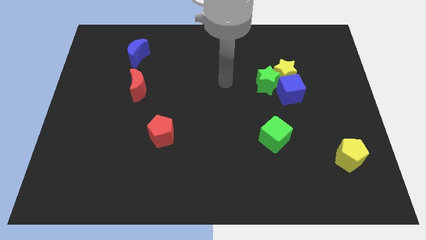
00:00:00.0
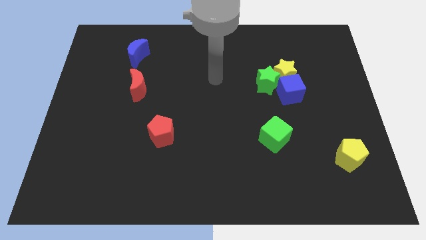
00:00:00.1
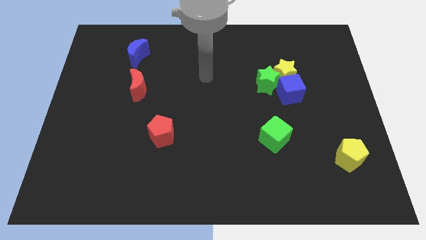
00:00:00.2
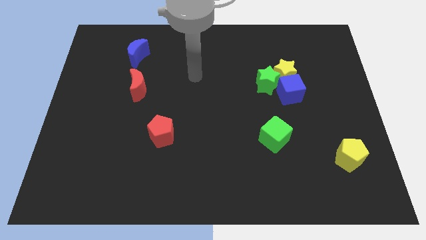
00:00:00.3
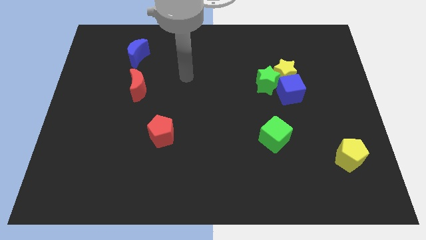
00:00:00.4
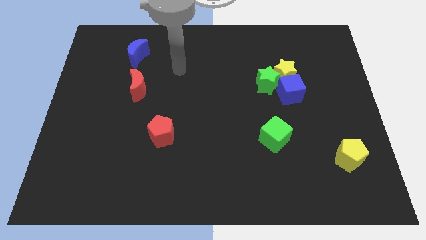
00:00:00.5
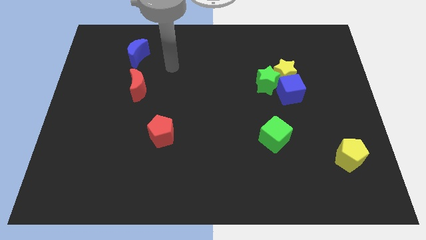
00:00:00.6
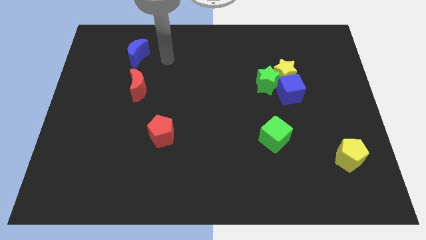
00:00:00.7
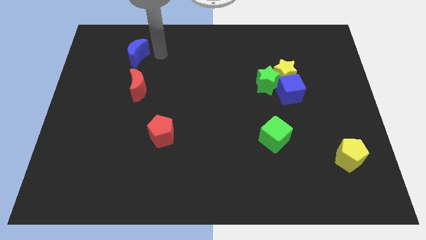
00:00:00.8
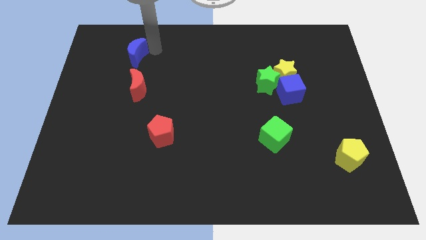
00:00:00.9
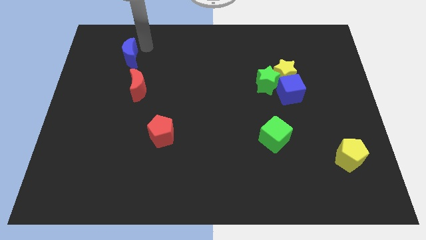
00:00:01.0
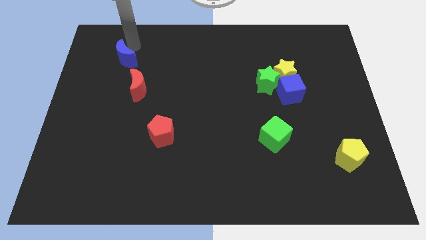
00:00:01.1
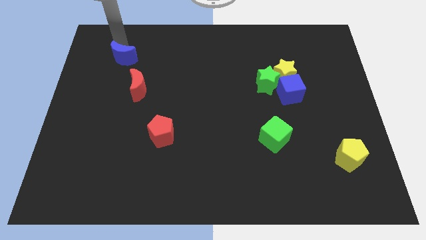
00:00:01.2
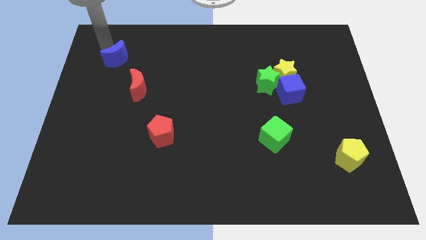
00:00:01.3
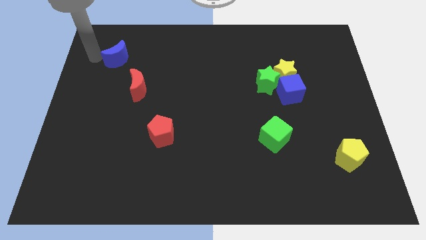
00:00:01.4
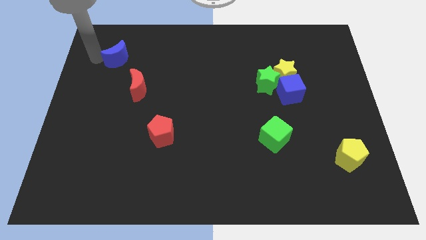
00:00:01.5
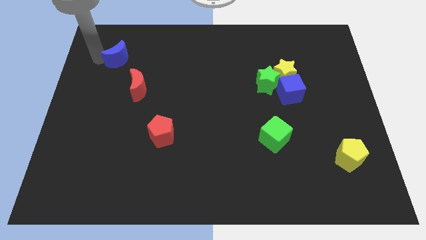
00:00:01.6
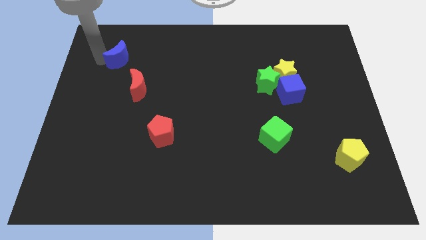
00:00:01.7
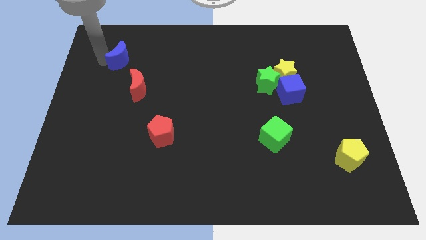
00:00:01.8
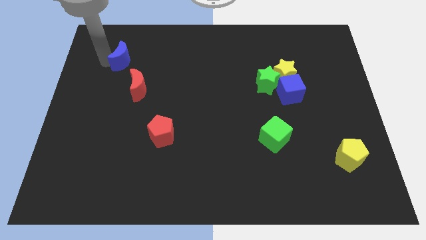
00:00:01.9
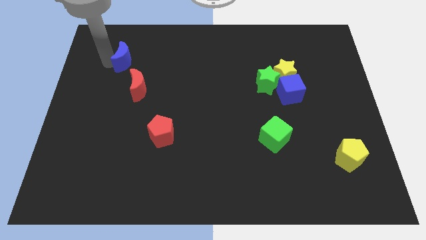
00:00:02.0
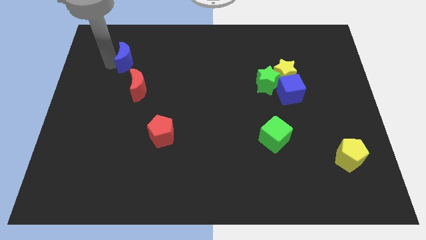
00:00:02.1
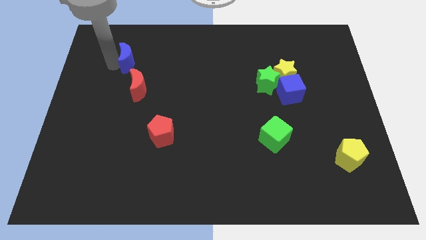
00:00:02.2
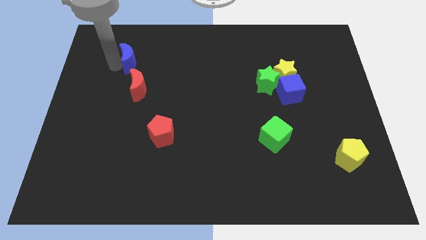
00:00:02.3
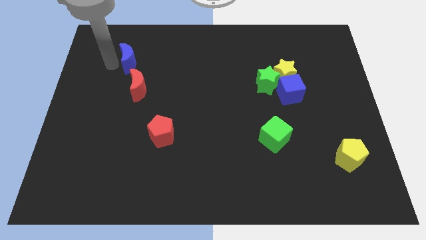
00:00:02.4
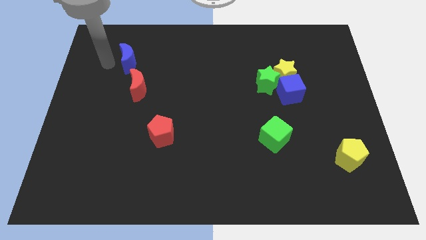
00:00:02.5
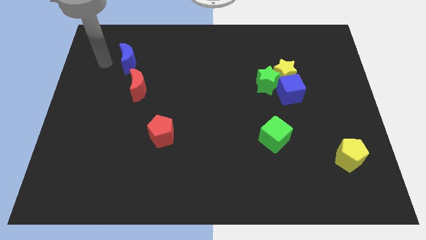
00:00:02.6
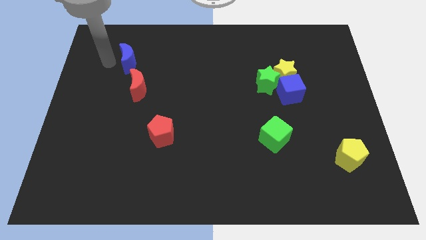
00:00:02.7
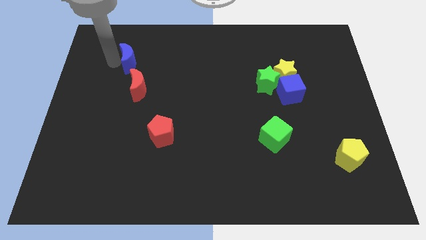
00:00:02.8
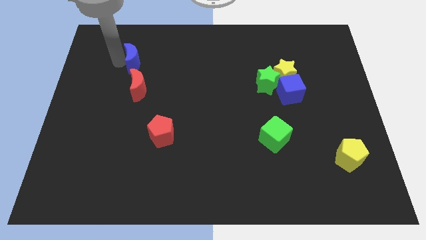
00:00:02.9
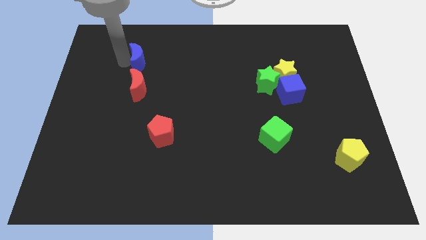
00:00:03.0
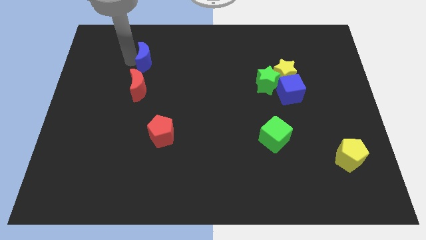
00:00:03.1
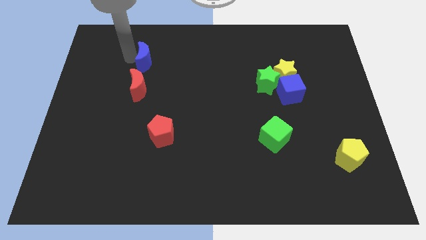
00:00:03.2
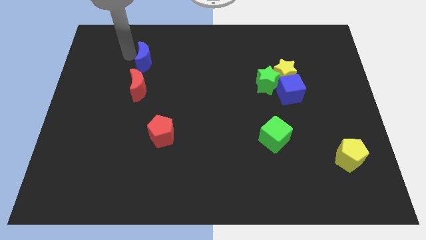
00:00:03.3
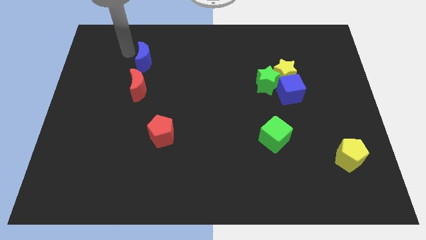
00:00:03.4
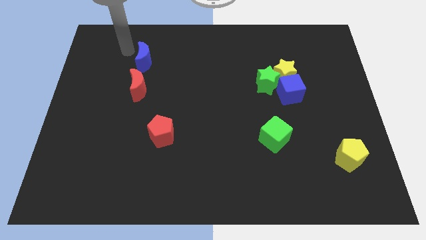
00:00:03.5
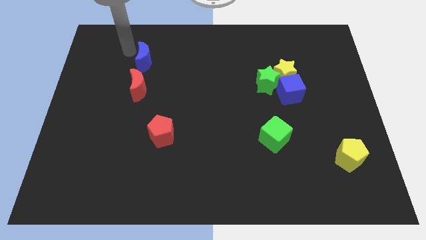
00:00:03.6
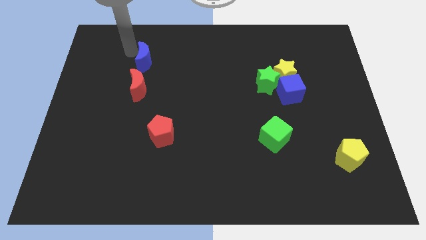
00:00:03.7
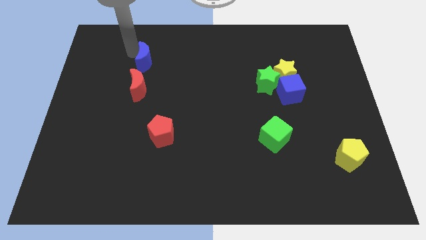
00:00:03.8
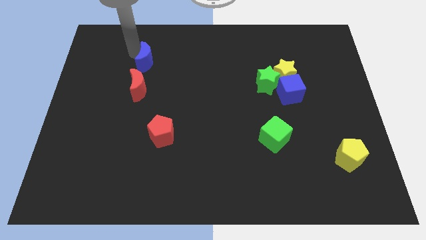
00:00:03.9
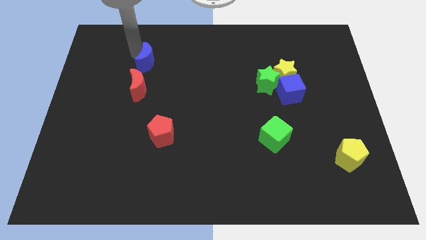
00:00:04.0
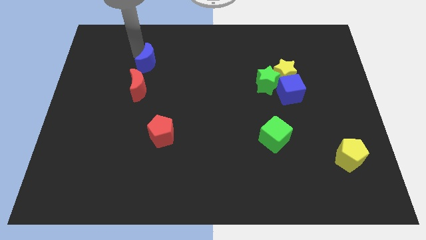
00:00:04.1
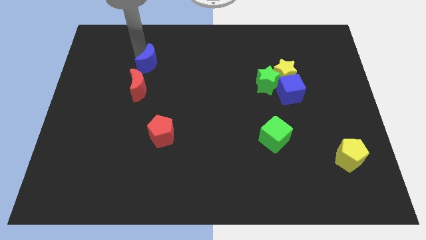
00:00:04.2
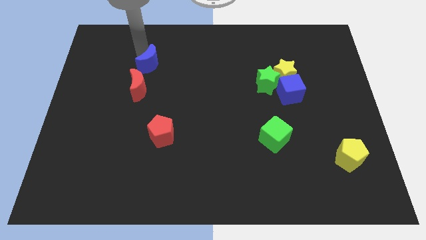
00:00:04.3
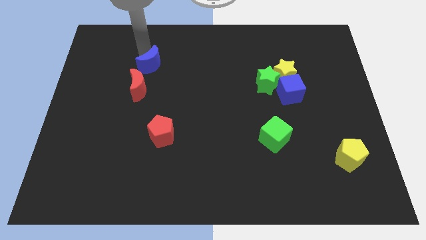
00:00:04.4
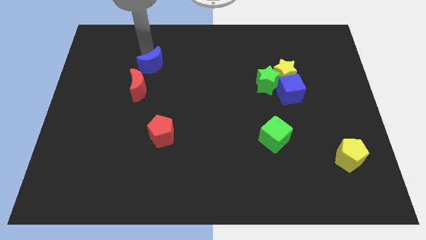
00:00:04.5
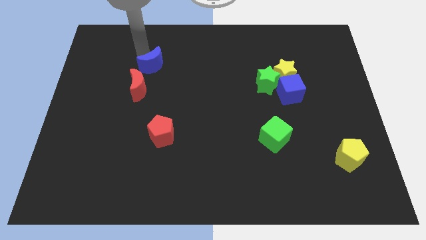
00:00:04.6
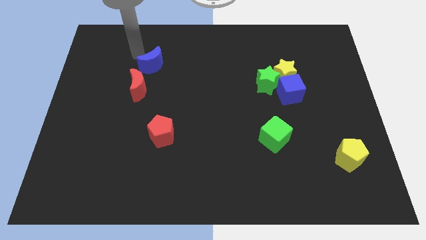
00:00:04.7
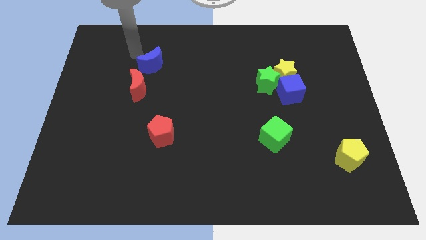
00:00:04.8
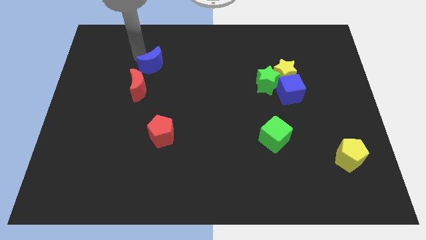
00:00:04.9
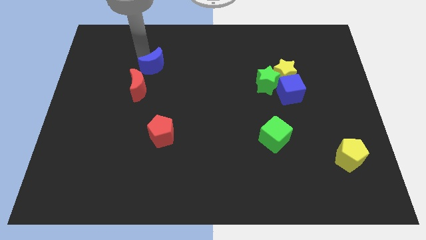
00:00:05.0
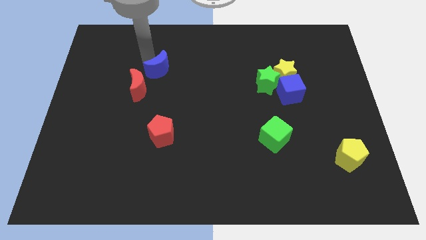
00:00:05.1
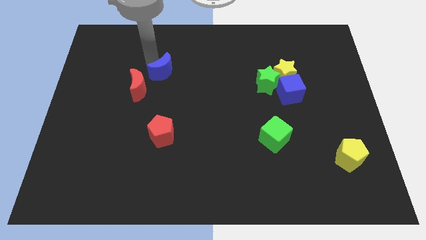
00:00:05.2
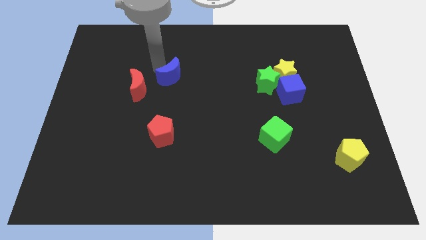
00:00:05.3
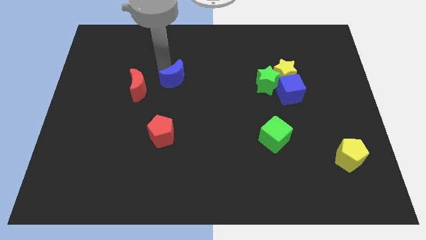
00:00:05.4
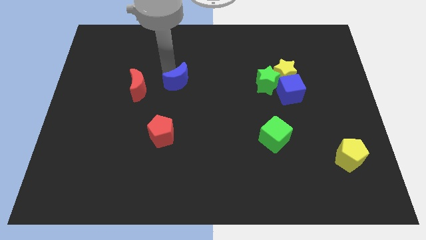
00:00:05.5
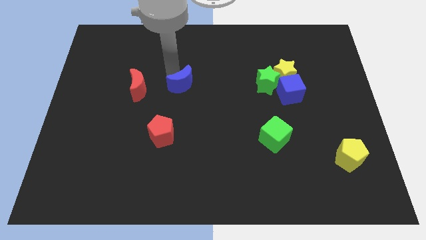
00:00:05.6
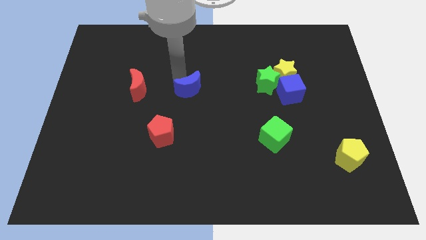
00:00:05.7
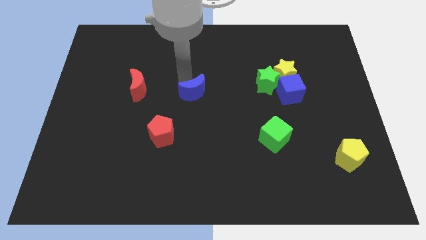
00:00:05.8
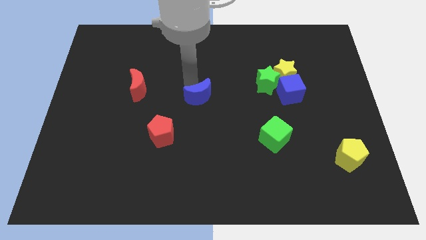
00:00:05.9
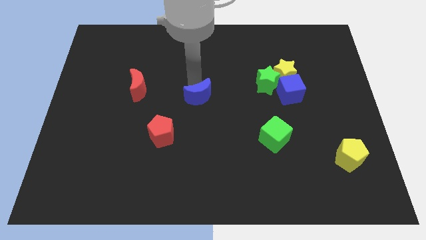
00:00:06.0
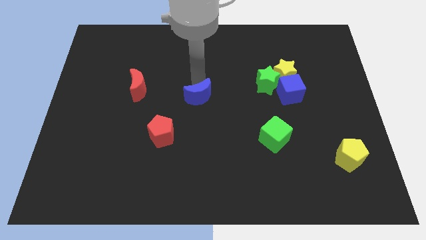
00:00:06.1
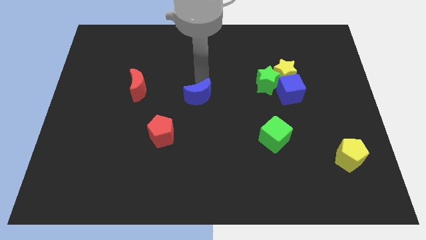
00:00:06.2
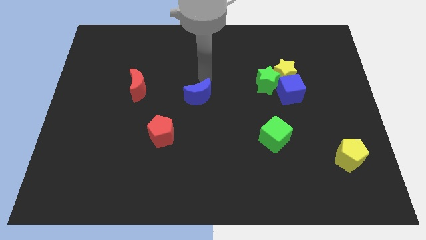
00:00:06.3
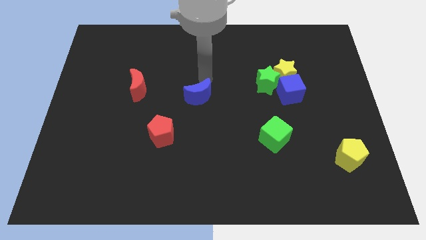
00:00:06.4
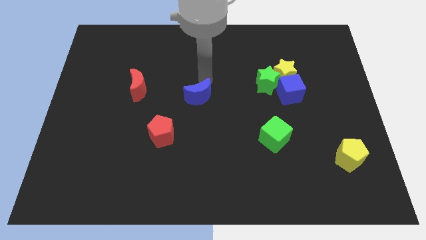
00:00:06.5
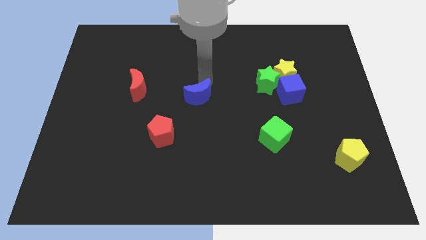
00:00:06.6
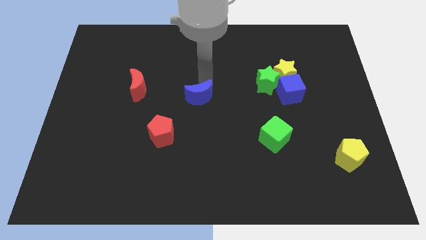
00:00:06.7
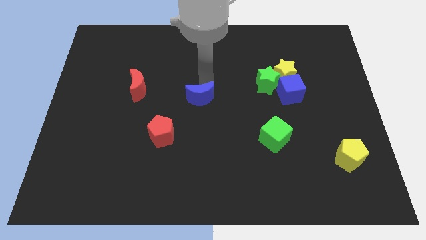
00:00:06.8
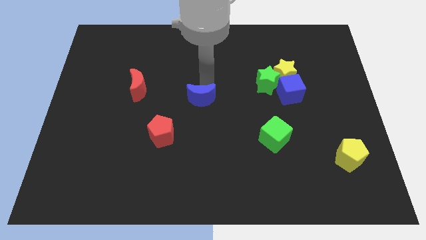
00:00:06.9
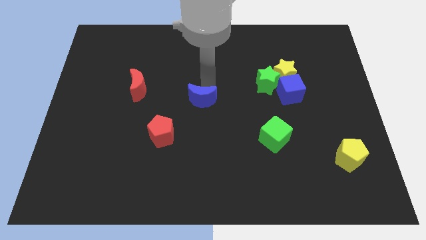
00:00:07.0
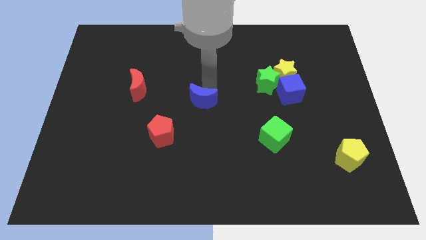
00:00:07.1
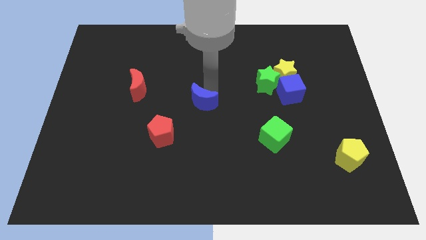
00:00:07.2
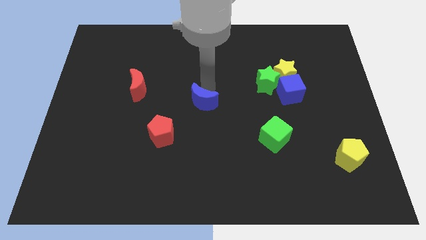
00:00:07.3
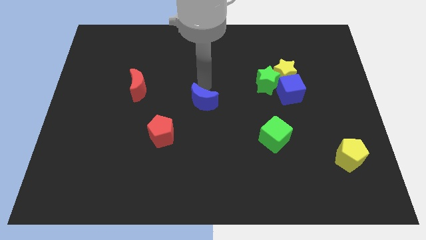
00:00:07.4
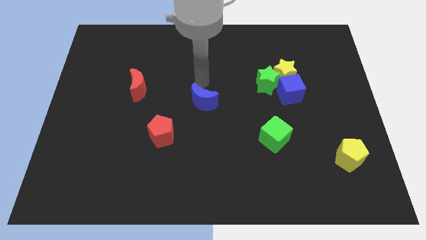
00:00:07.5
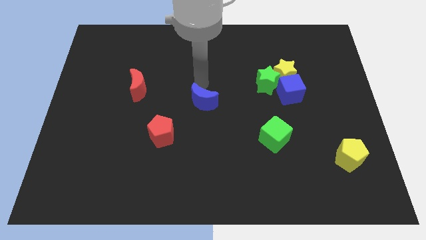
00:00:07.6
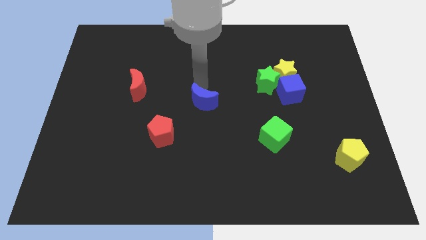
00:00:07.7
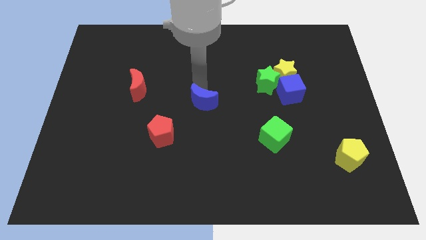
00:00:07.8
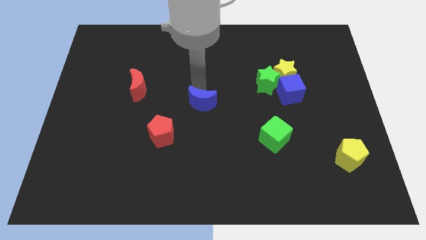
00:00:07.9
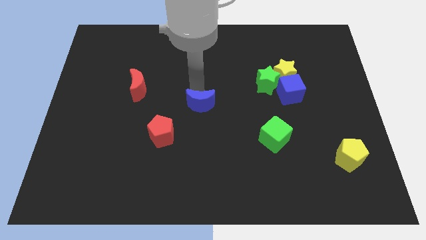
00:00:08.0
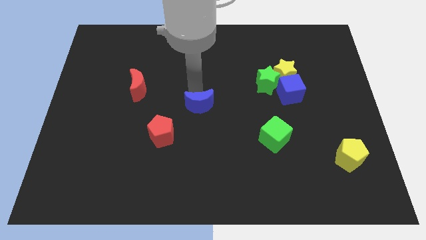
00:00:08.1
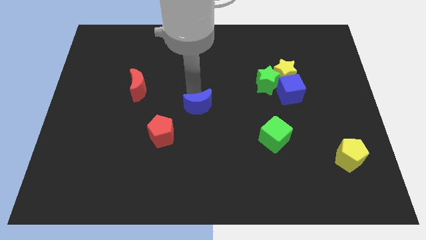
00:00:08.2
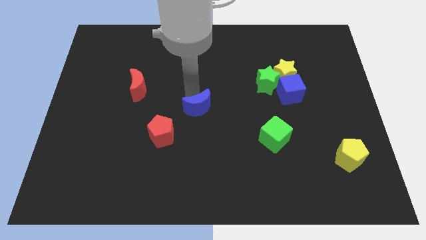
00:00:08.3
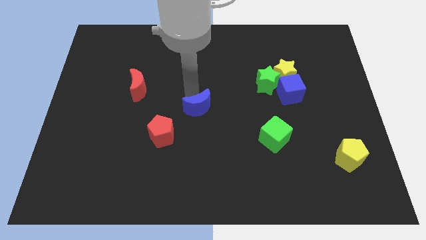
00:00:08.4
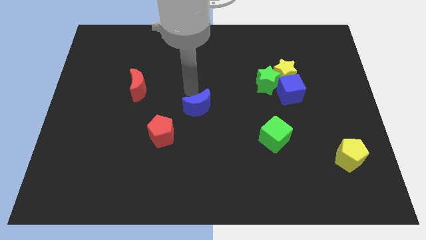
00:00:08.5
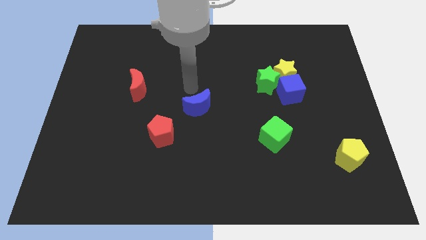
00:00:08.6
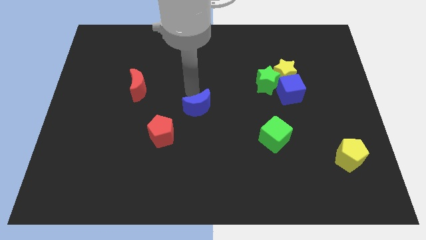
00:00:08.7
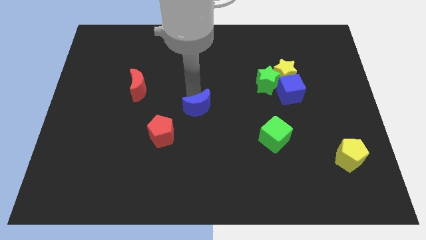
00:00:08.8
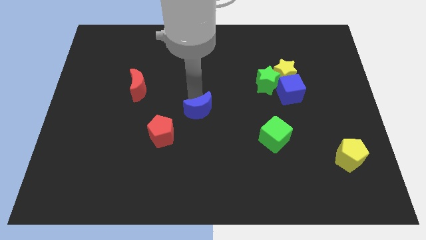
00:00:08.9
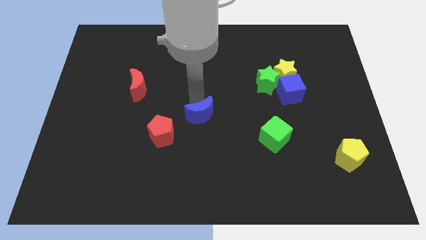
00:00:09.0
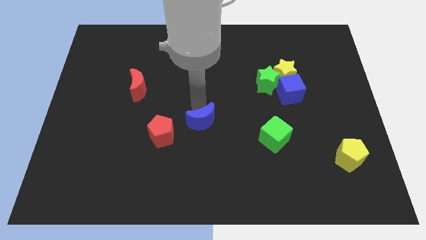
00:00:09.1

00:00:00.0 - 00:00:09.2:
put the blue moon to the right of the red pentagon
